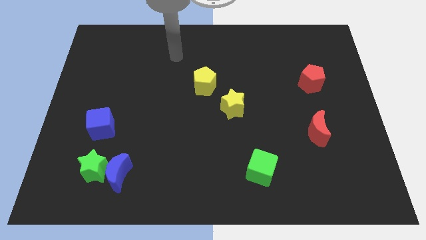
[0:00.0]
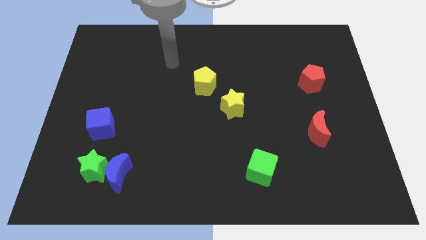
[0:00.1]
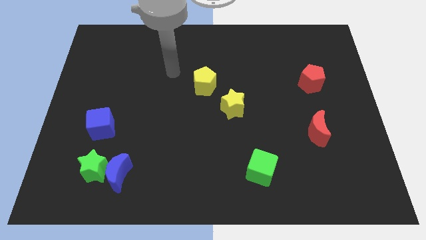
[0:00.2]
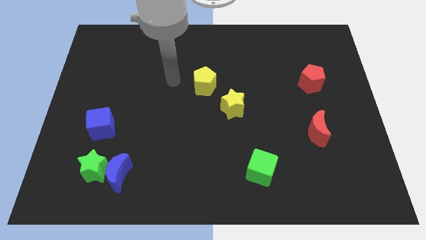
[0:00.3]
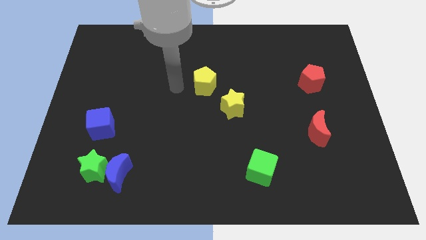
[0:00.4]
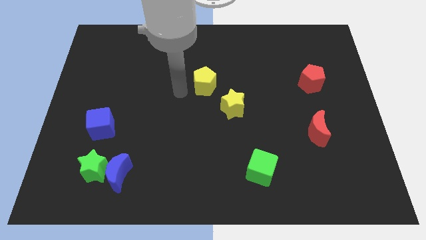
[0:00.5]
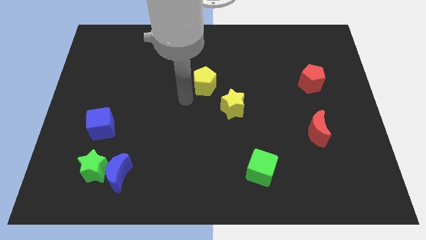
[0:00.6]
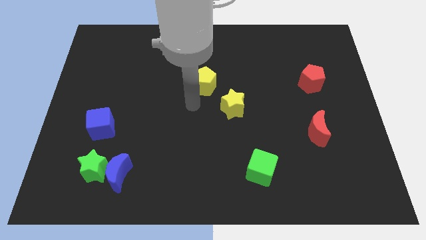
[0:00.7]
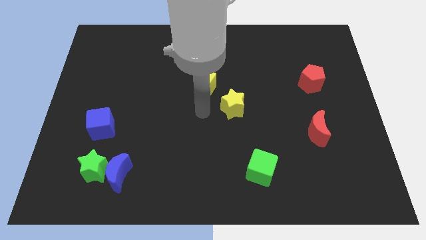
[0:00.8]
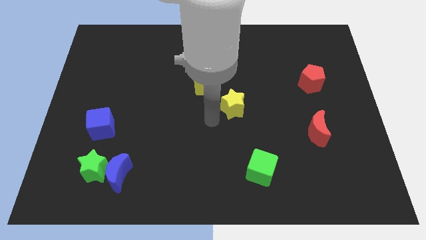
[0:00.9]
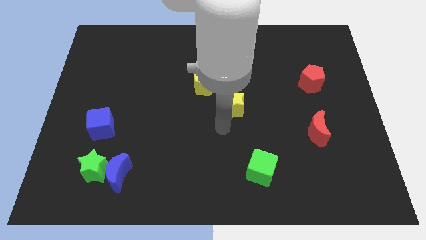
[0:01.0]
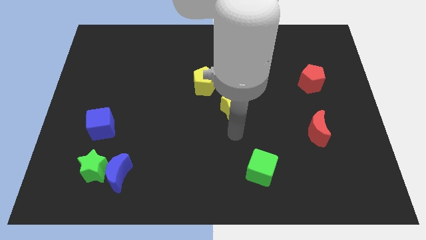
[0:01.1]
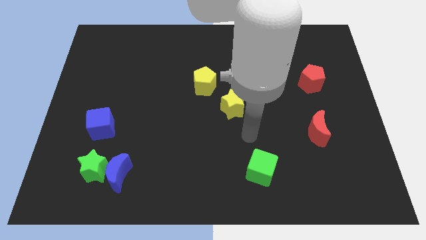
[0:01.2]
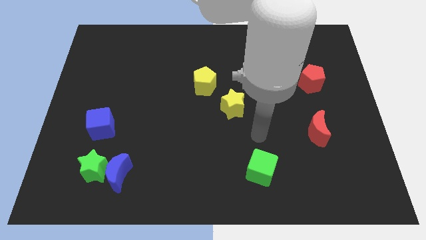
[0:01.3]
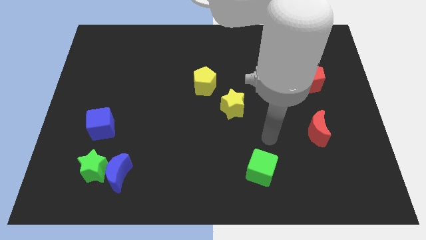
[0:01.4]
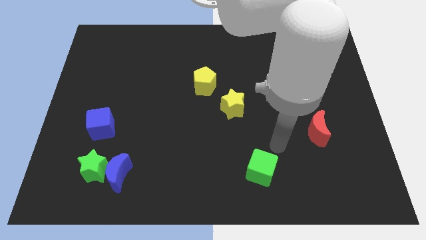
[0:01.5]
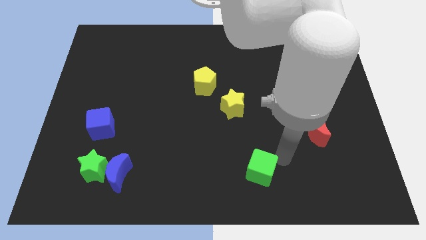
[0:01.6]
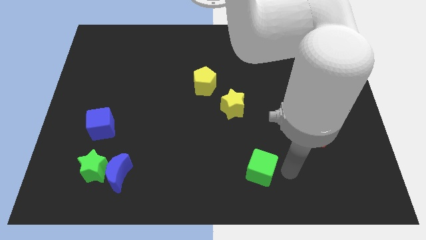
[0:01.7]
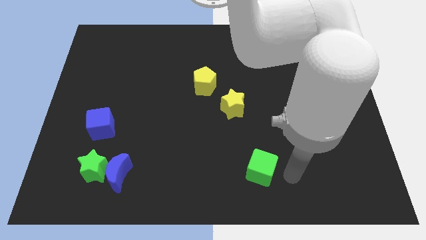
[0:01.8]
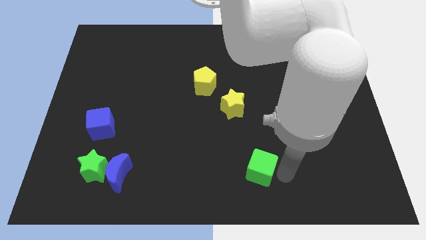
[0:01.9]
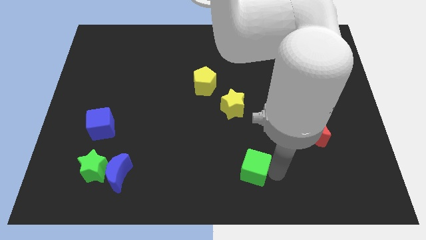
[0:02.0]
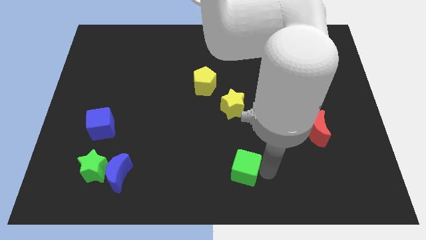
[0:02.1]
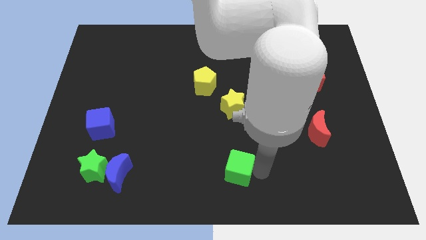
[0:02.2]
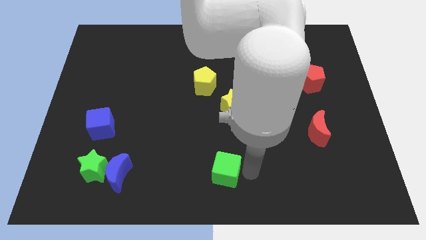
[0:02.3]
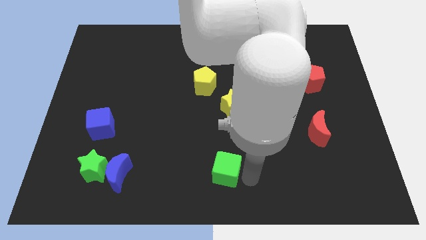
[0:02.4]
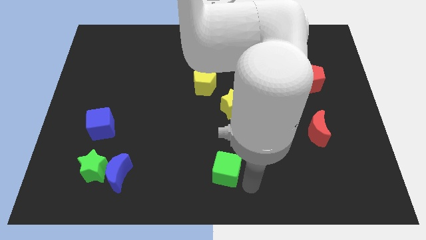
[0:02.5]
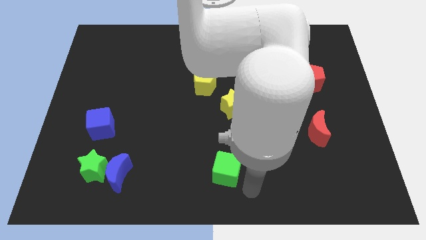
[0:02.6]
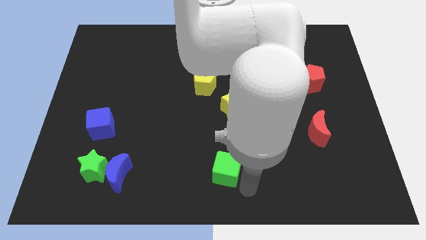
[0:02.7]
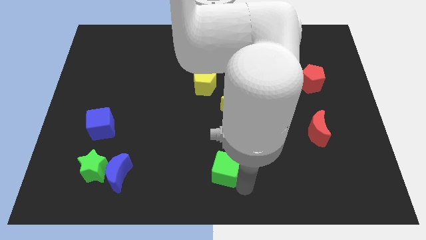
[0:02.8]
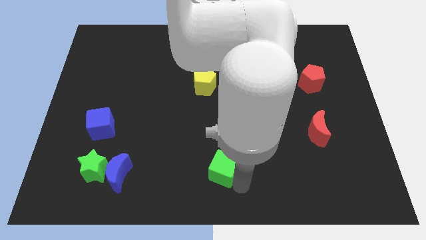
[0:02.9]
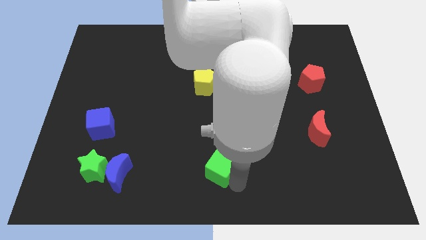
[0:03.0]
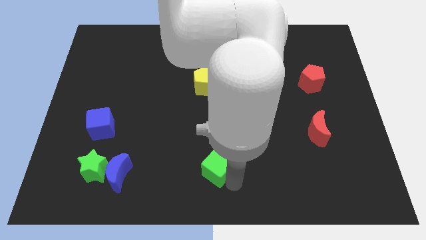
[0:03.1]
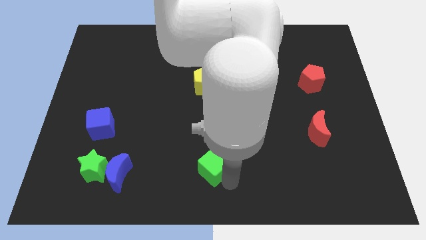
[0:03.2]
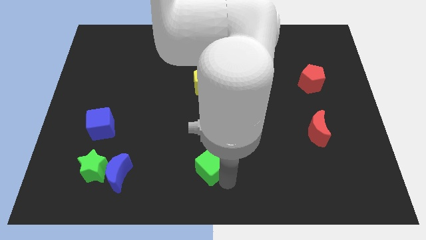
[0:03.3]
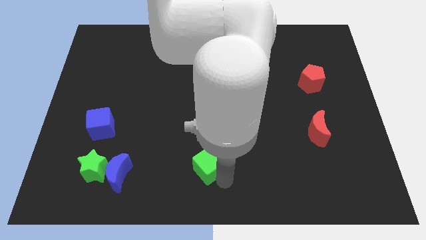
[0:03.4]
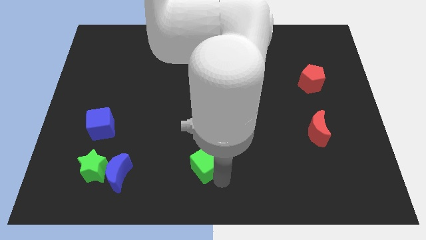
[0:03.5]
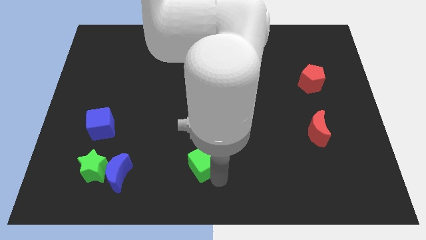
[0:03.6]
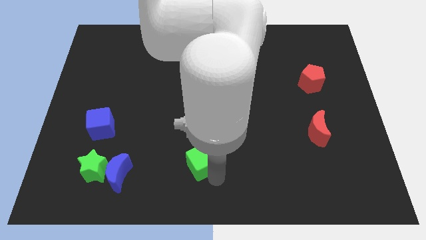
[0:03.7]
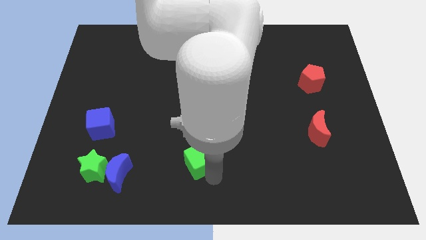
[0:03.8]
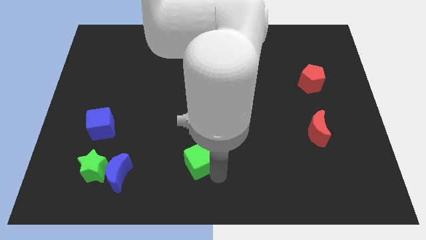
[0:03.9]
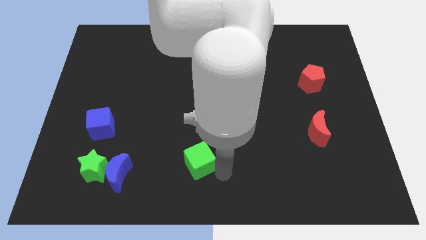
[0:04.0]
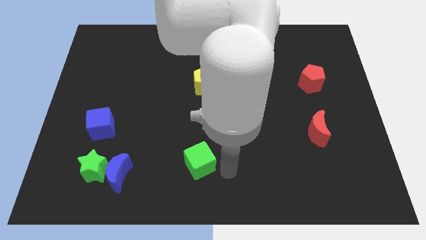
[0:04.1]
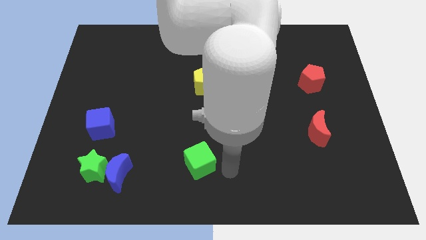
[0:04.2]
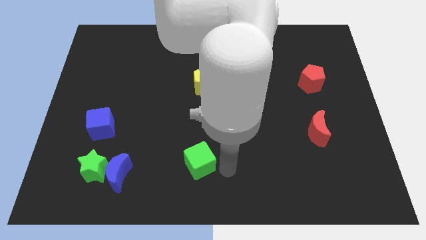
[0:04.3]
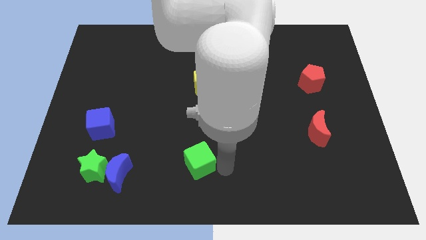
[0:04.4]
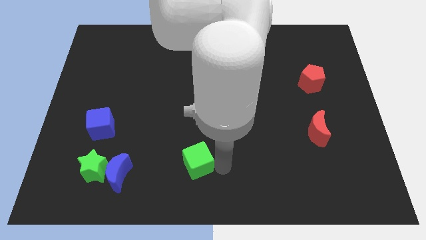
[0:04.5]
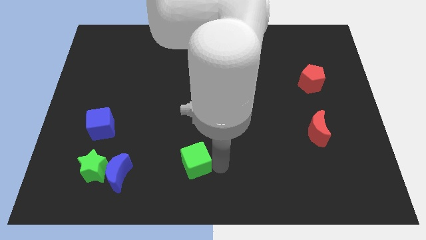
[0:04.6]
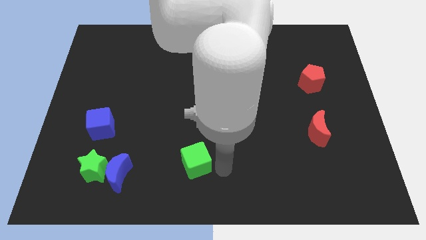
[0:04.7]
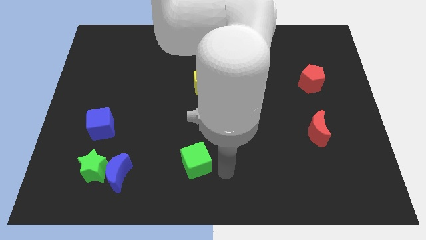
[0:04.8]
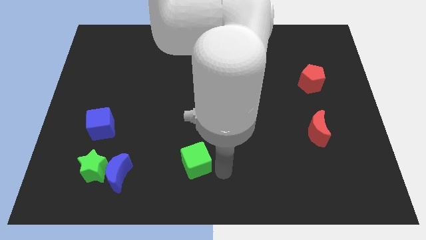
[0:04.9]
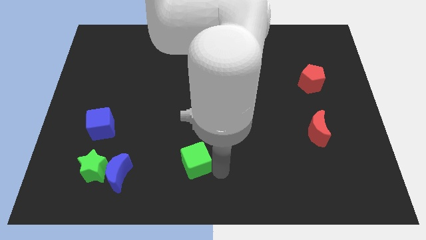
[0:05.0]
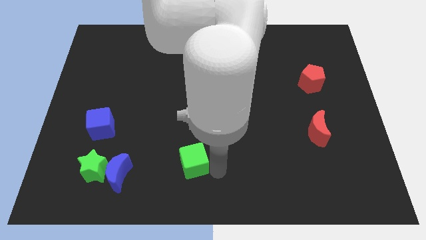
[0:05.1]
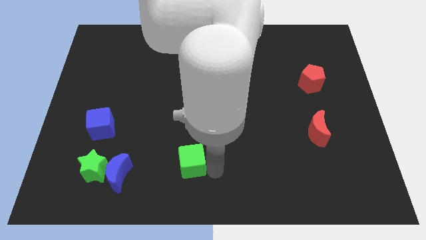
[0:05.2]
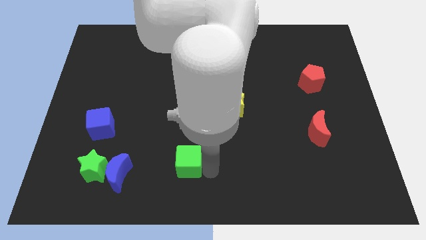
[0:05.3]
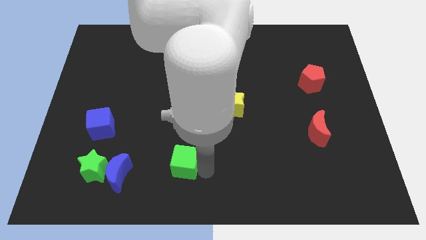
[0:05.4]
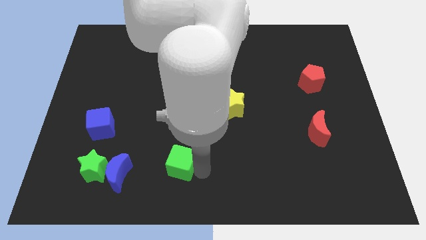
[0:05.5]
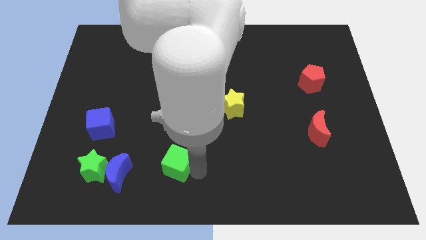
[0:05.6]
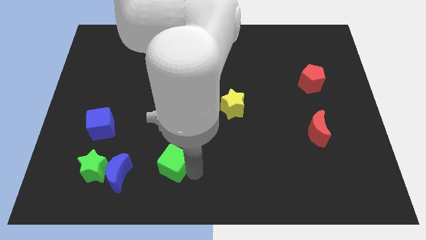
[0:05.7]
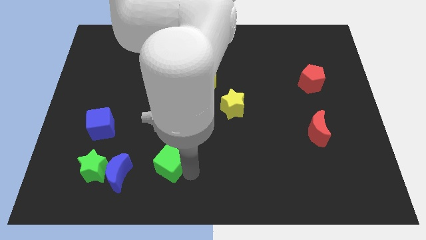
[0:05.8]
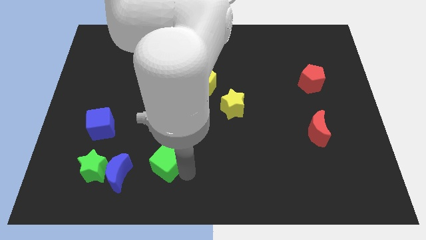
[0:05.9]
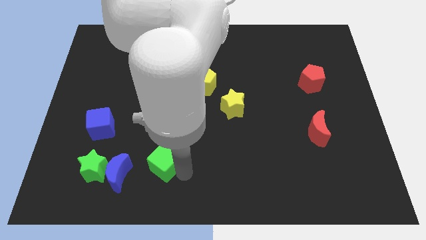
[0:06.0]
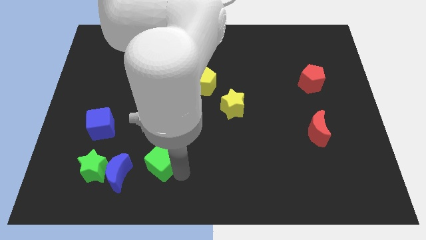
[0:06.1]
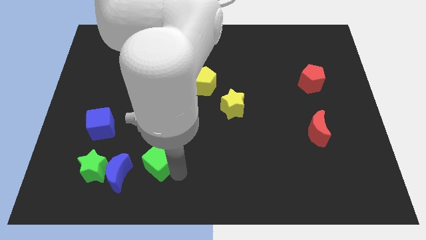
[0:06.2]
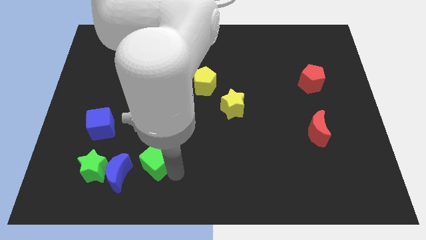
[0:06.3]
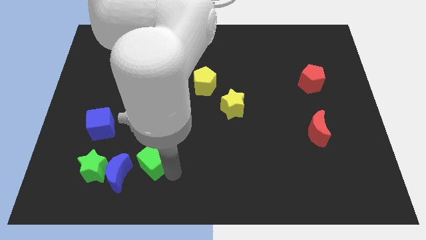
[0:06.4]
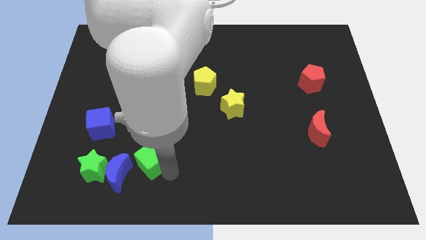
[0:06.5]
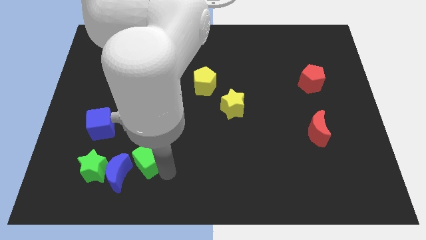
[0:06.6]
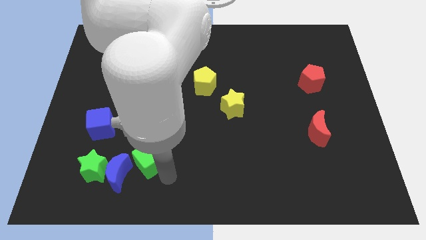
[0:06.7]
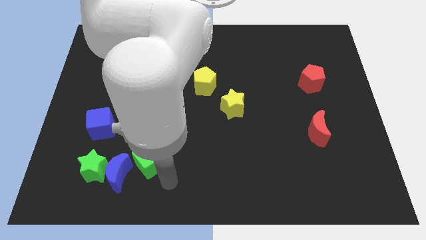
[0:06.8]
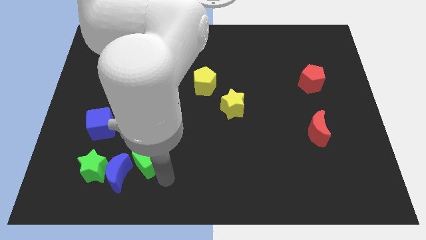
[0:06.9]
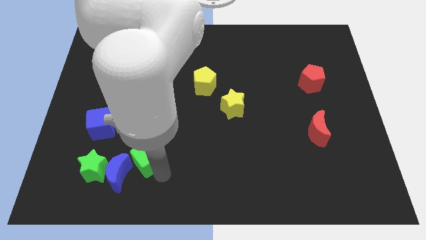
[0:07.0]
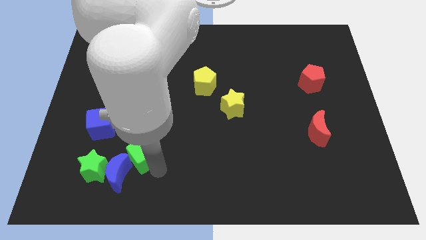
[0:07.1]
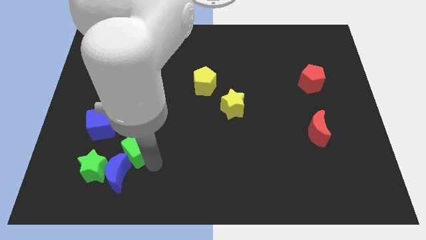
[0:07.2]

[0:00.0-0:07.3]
slide the green cube to the bottom right of the blue cube
